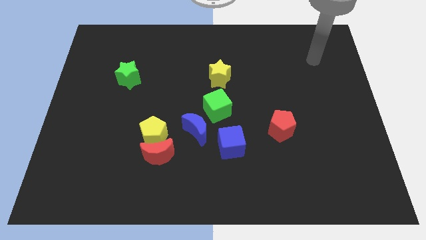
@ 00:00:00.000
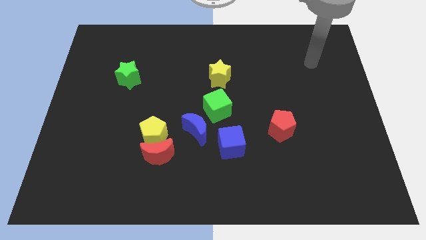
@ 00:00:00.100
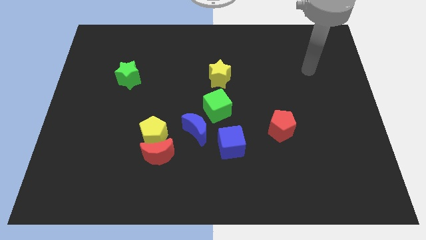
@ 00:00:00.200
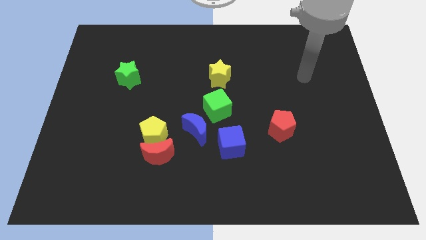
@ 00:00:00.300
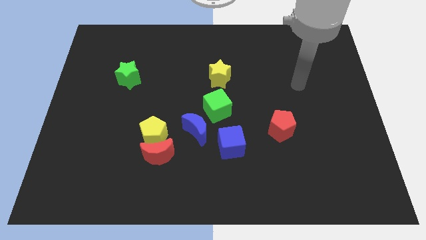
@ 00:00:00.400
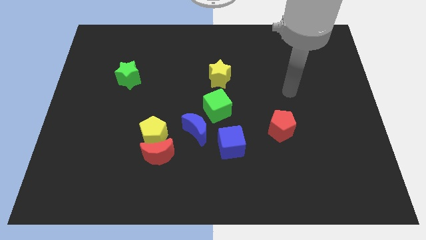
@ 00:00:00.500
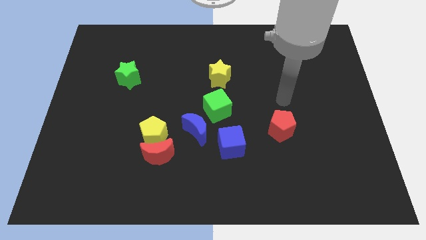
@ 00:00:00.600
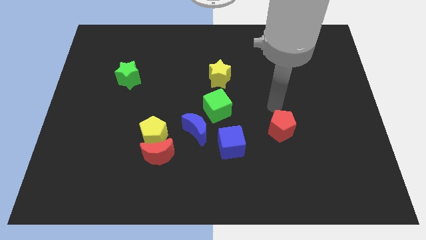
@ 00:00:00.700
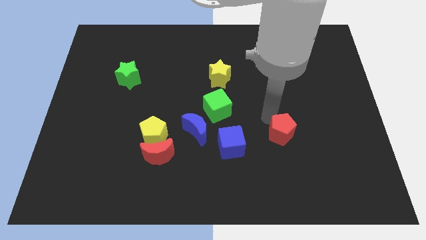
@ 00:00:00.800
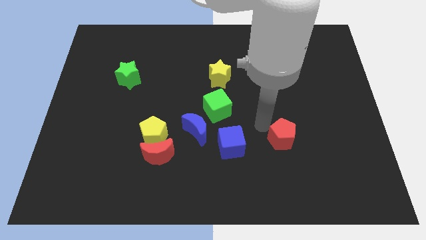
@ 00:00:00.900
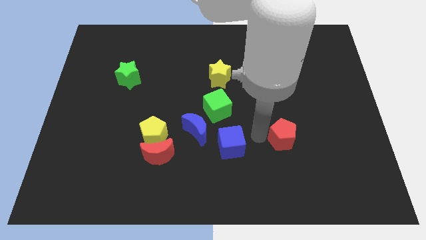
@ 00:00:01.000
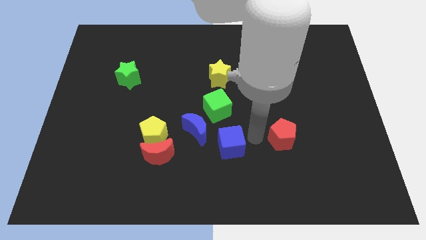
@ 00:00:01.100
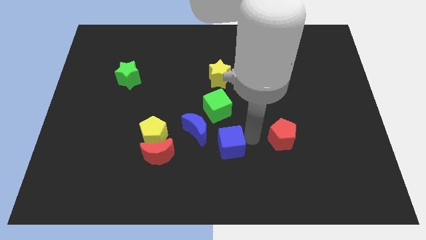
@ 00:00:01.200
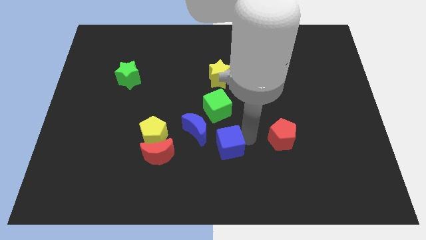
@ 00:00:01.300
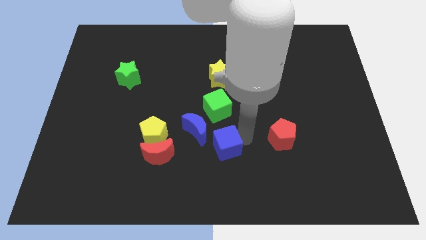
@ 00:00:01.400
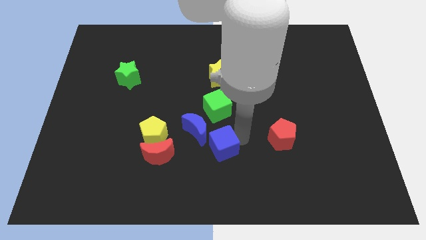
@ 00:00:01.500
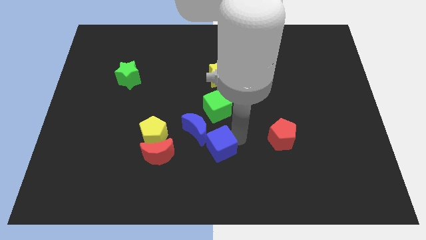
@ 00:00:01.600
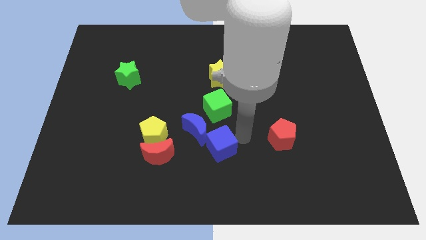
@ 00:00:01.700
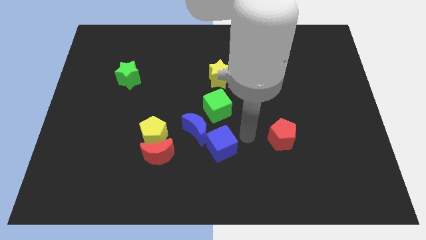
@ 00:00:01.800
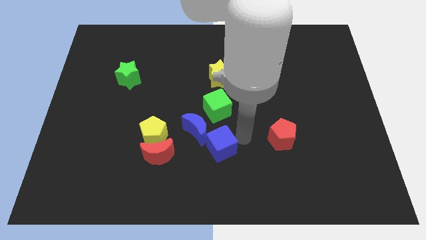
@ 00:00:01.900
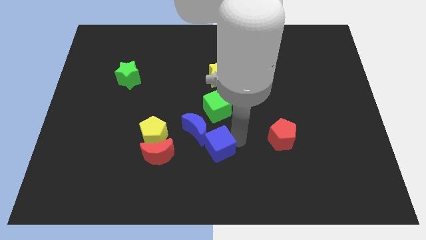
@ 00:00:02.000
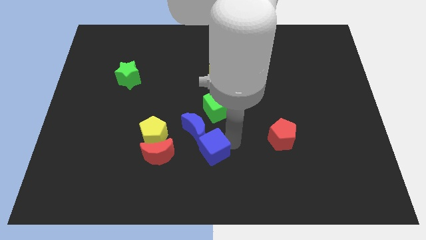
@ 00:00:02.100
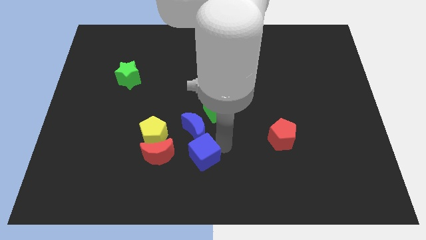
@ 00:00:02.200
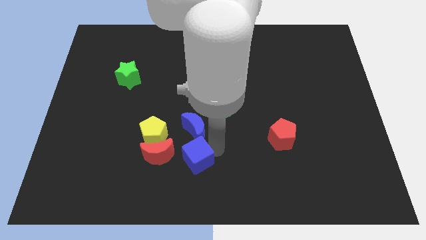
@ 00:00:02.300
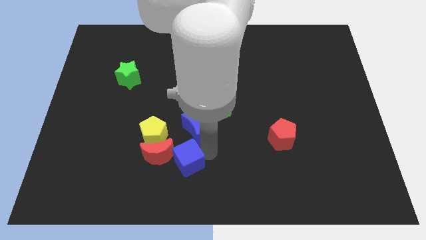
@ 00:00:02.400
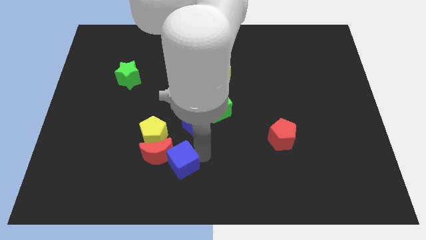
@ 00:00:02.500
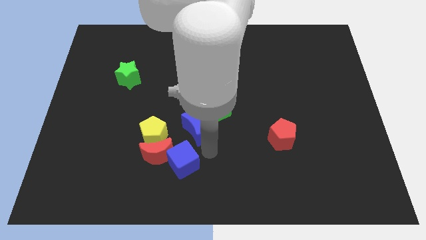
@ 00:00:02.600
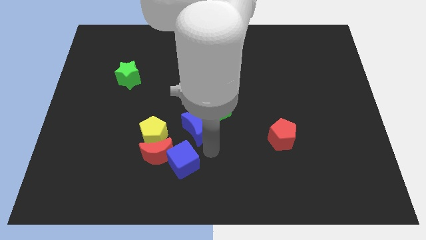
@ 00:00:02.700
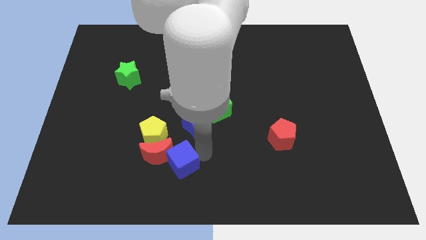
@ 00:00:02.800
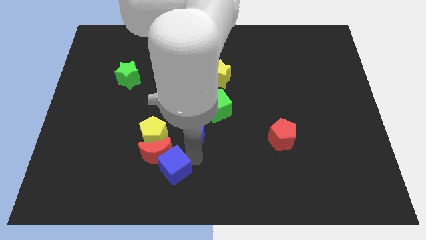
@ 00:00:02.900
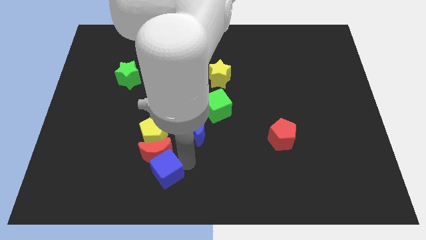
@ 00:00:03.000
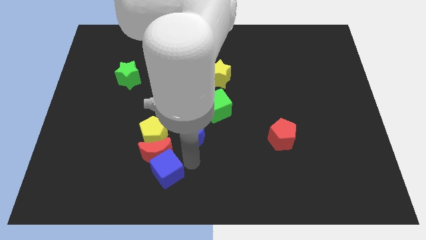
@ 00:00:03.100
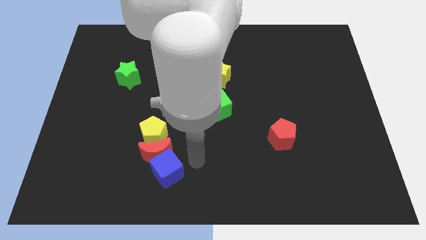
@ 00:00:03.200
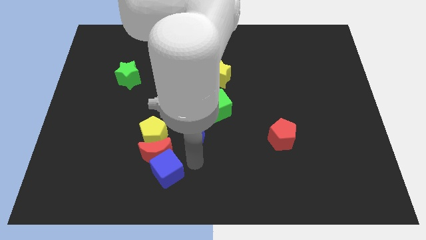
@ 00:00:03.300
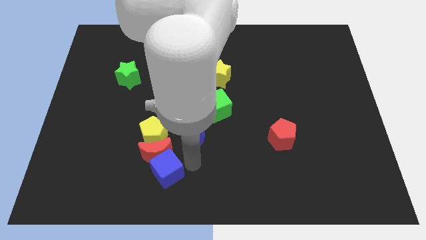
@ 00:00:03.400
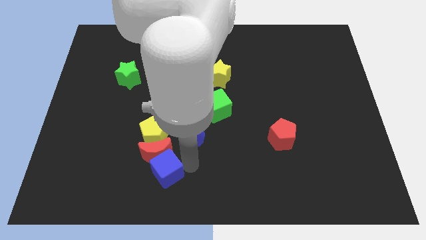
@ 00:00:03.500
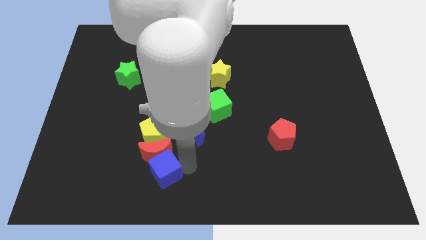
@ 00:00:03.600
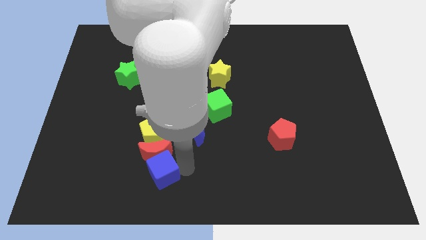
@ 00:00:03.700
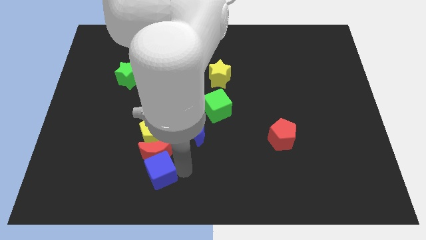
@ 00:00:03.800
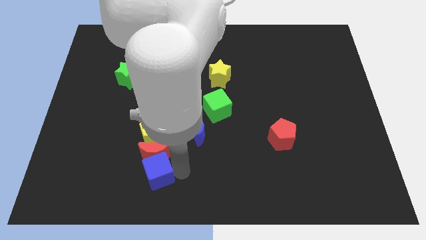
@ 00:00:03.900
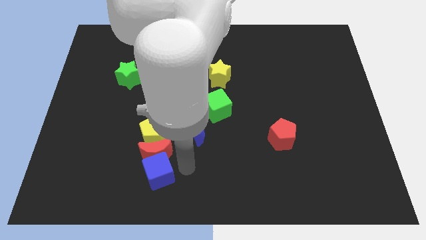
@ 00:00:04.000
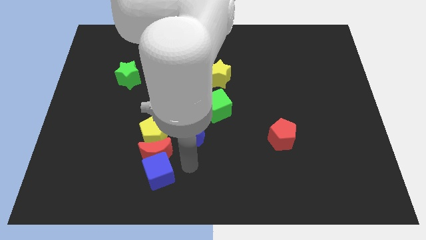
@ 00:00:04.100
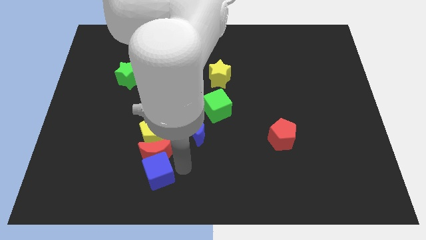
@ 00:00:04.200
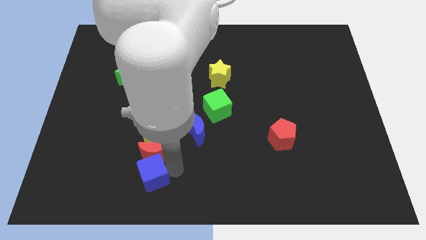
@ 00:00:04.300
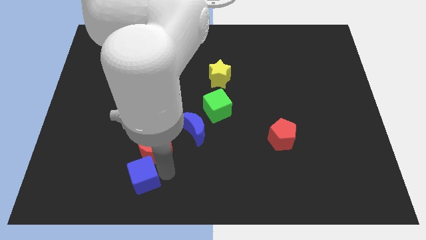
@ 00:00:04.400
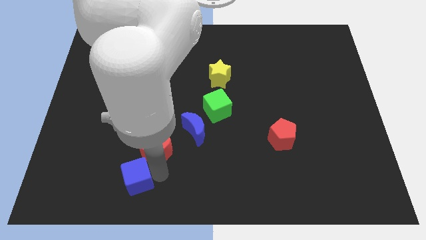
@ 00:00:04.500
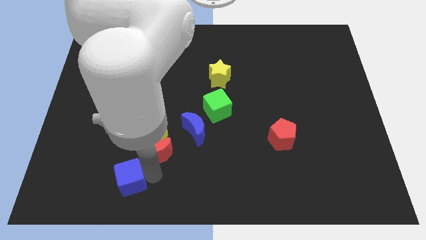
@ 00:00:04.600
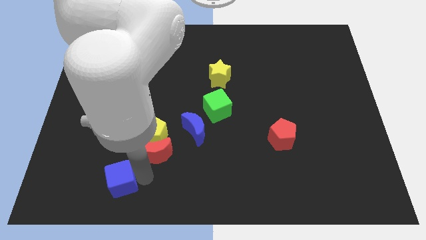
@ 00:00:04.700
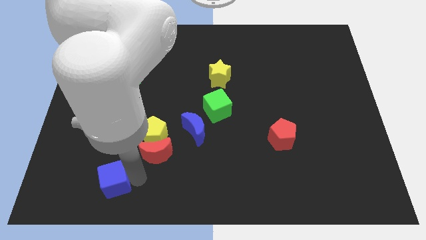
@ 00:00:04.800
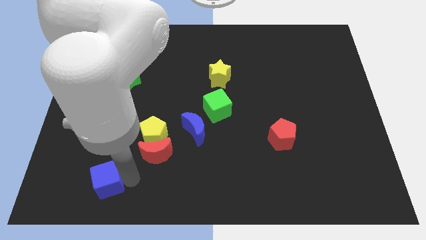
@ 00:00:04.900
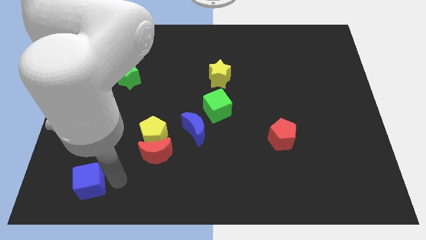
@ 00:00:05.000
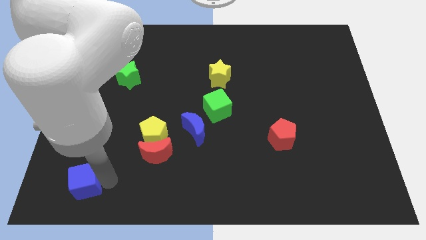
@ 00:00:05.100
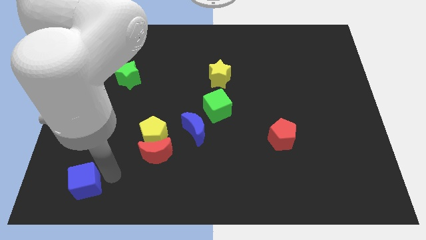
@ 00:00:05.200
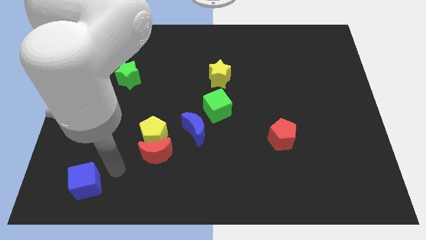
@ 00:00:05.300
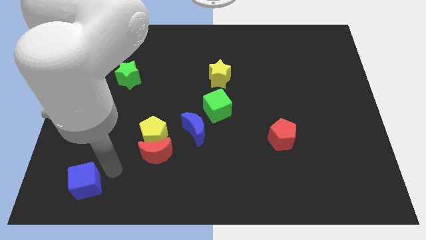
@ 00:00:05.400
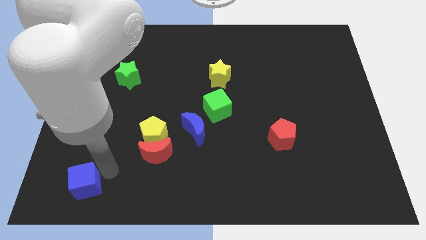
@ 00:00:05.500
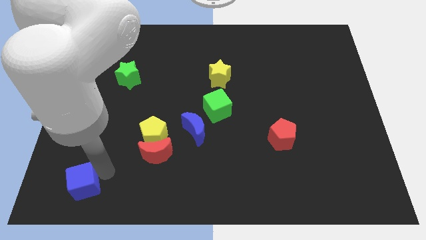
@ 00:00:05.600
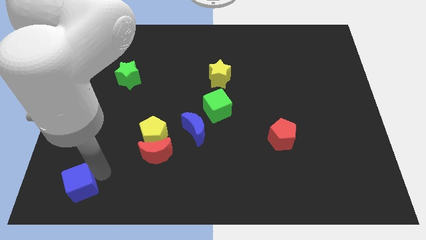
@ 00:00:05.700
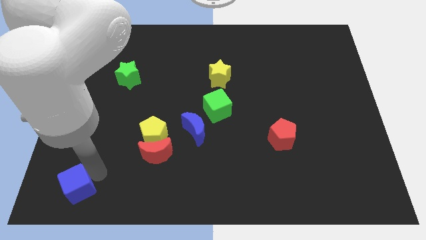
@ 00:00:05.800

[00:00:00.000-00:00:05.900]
slide the blue cube to the bottom left of the board

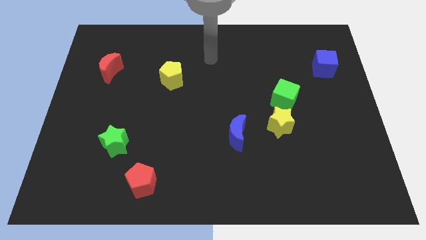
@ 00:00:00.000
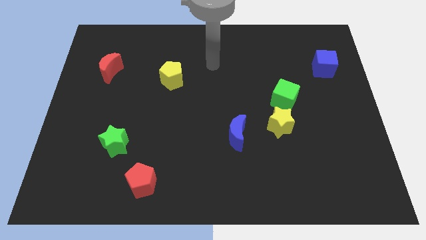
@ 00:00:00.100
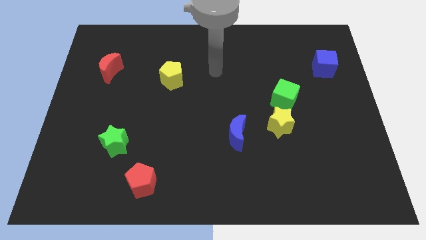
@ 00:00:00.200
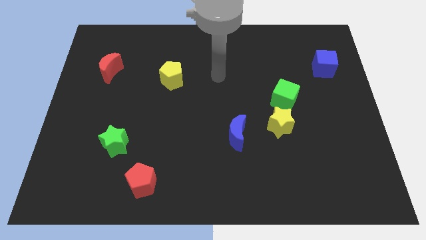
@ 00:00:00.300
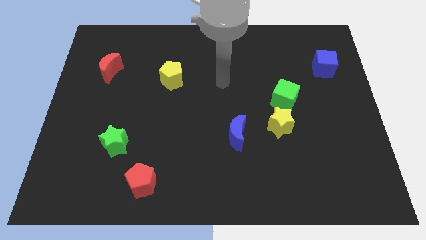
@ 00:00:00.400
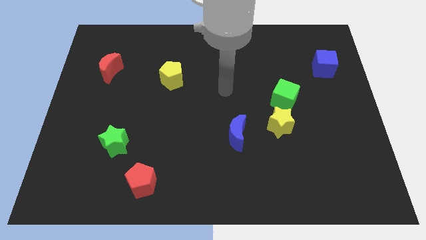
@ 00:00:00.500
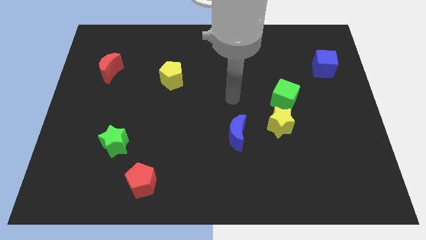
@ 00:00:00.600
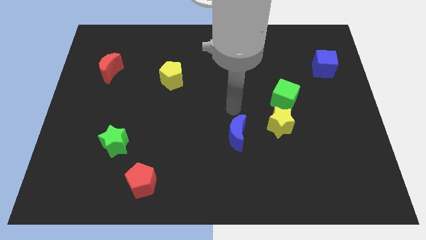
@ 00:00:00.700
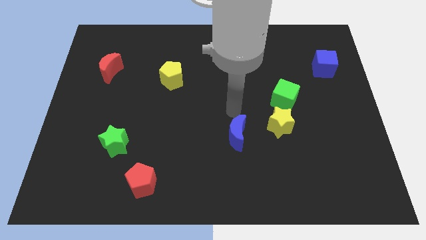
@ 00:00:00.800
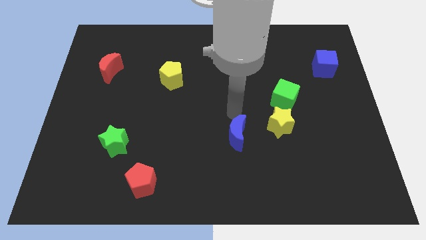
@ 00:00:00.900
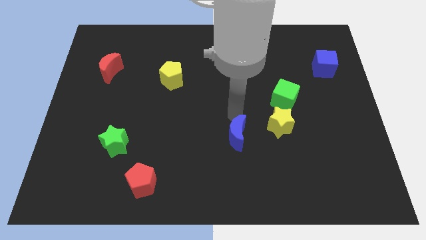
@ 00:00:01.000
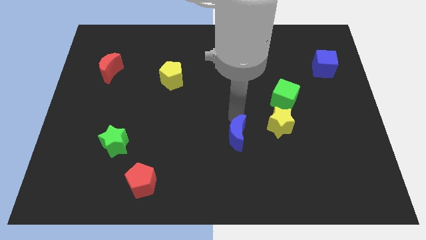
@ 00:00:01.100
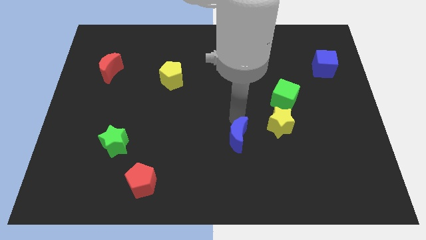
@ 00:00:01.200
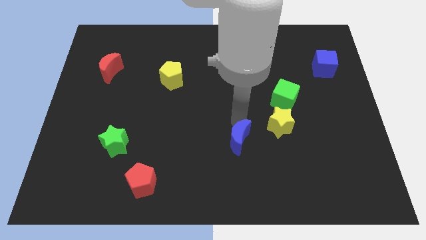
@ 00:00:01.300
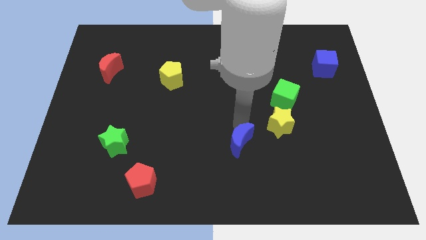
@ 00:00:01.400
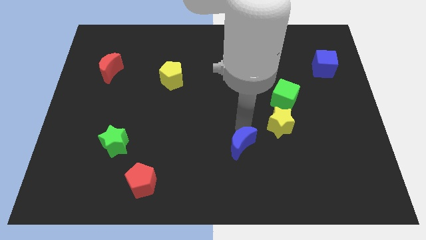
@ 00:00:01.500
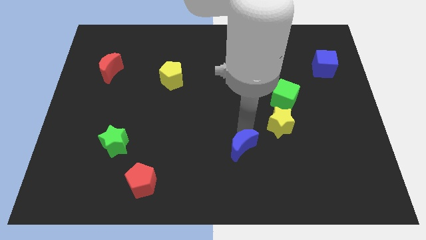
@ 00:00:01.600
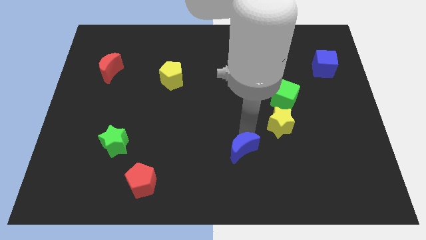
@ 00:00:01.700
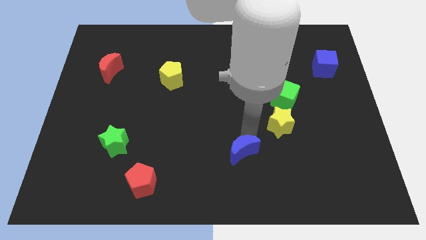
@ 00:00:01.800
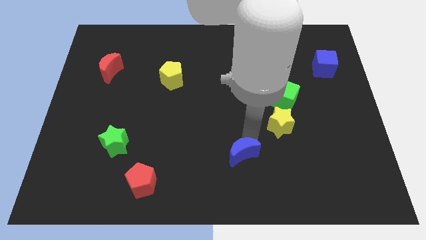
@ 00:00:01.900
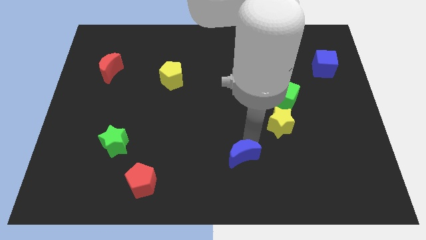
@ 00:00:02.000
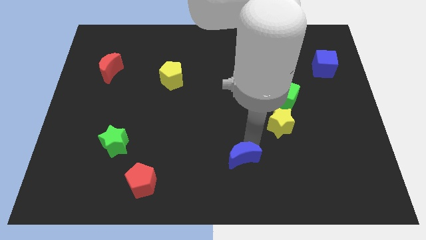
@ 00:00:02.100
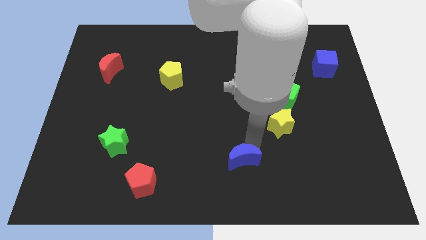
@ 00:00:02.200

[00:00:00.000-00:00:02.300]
move the blue moon to the bottom side
